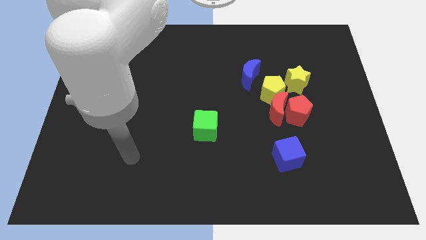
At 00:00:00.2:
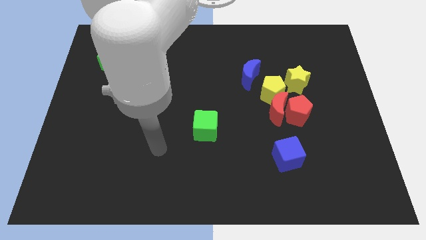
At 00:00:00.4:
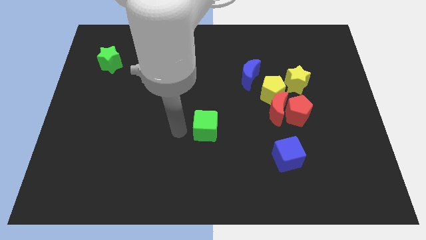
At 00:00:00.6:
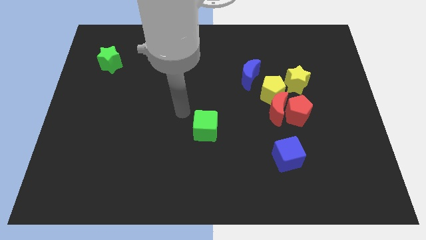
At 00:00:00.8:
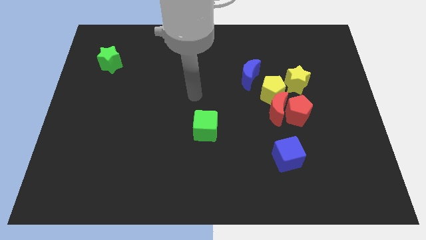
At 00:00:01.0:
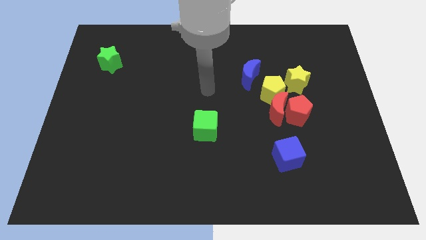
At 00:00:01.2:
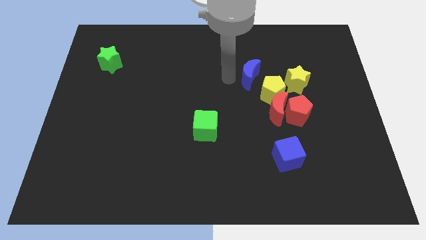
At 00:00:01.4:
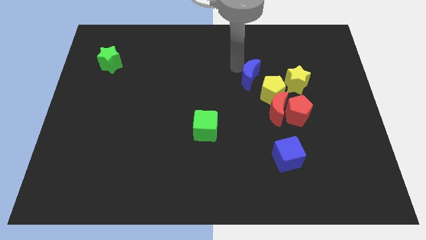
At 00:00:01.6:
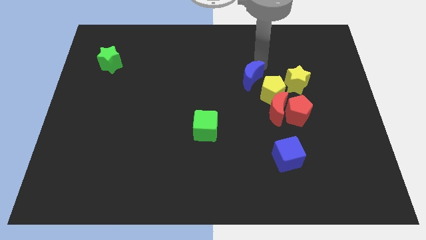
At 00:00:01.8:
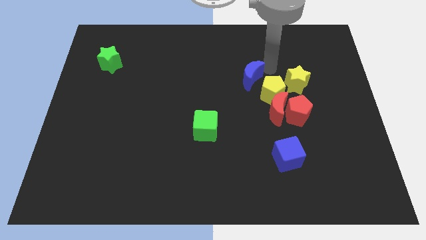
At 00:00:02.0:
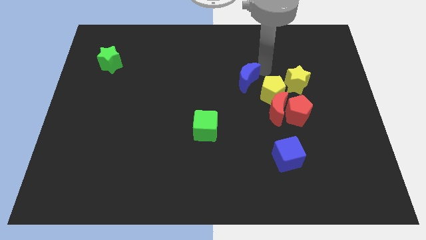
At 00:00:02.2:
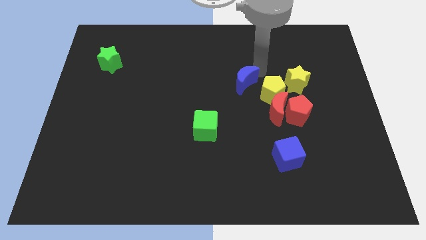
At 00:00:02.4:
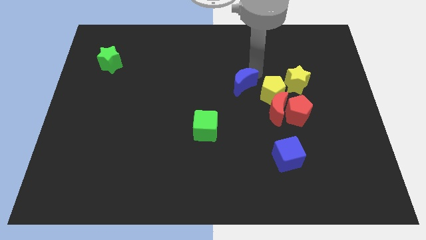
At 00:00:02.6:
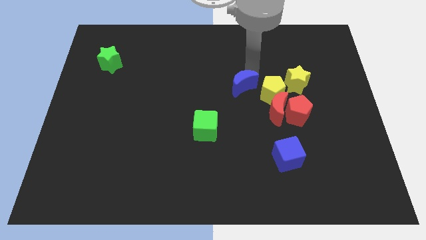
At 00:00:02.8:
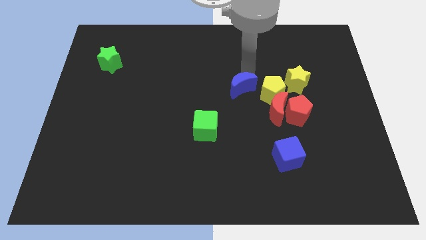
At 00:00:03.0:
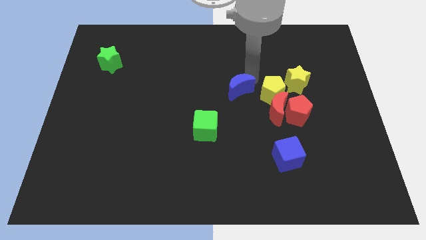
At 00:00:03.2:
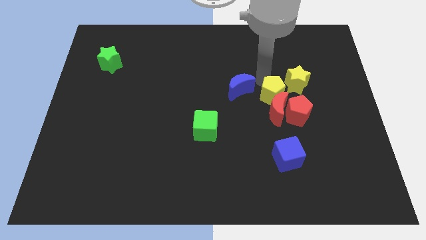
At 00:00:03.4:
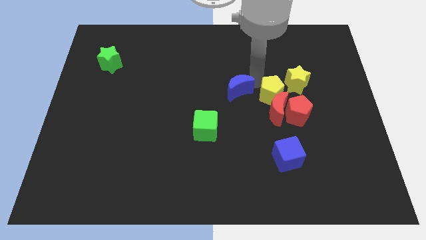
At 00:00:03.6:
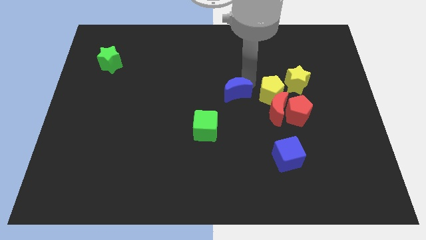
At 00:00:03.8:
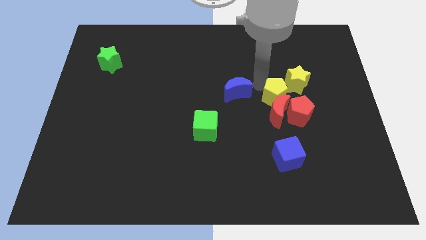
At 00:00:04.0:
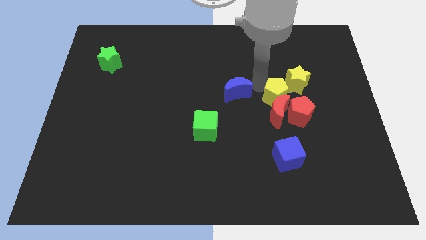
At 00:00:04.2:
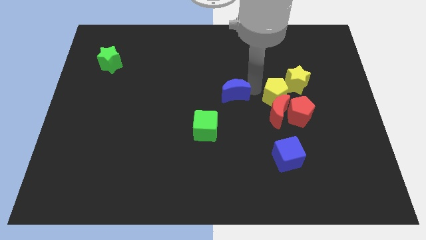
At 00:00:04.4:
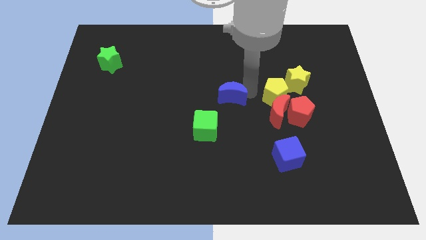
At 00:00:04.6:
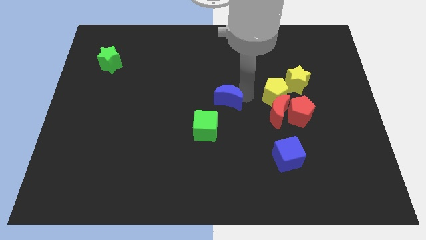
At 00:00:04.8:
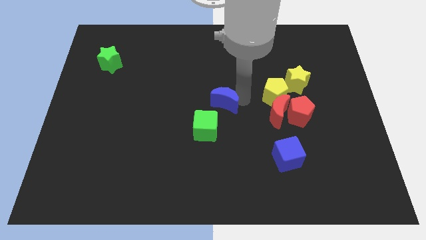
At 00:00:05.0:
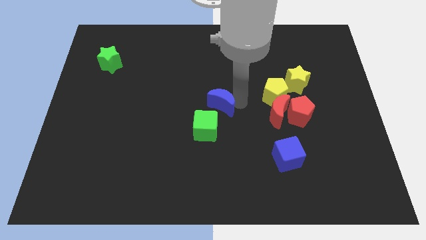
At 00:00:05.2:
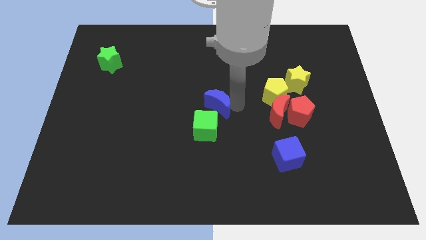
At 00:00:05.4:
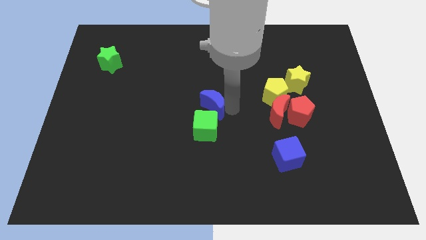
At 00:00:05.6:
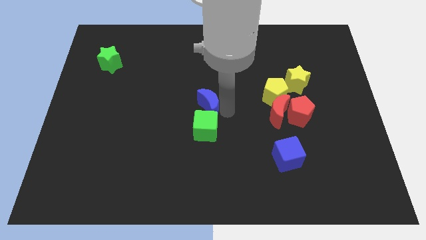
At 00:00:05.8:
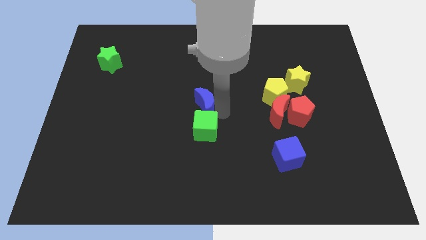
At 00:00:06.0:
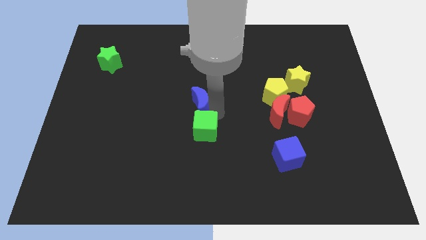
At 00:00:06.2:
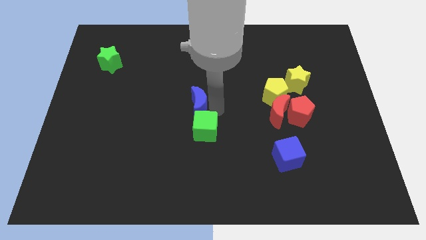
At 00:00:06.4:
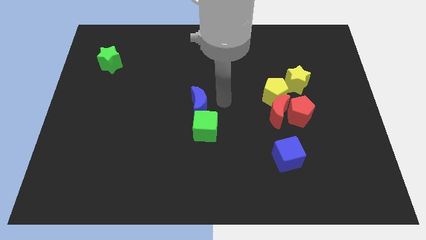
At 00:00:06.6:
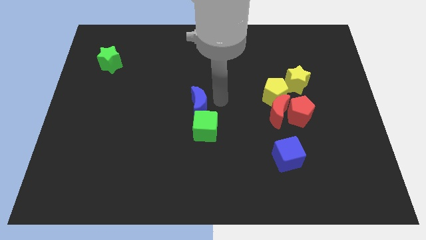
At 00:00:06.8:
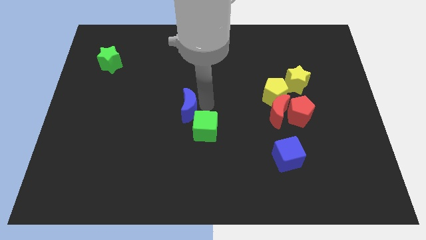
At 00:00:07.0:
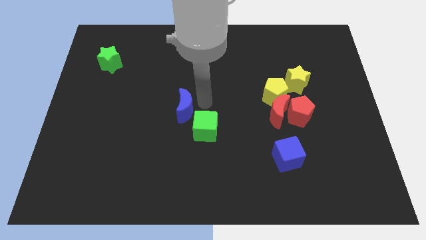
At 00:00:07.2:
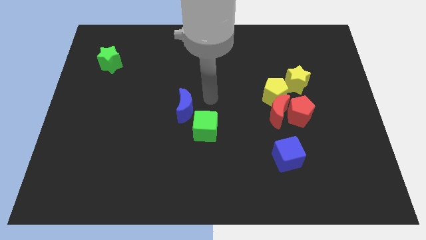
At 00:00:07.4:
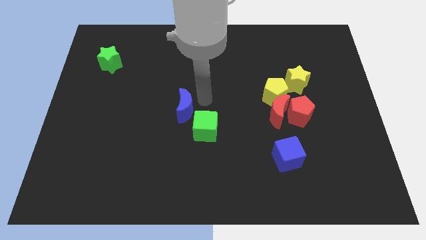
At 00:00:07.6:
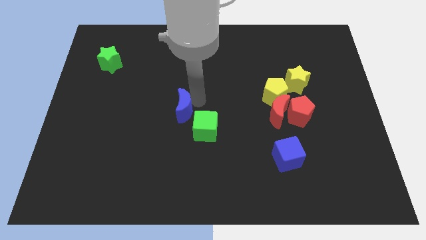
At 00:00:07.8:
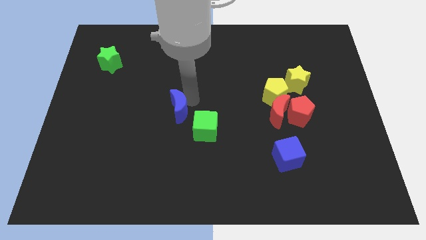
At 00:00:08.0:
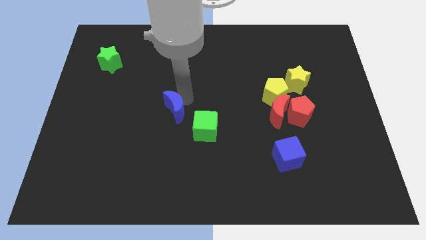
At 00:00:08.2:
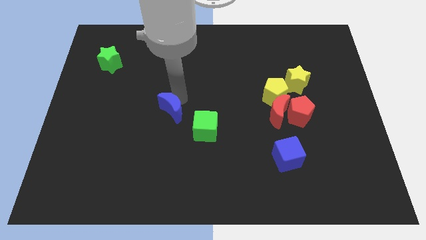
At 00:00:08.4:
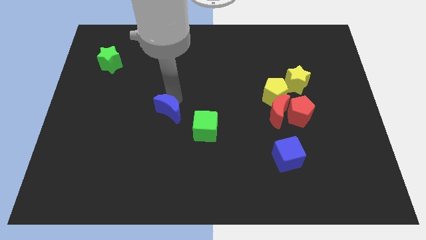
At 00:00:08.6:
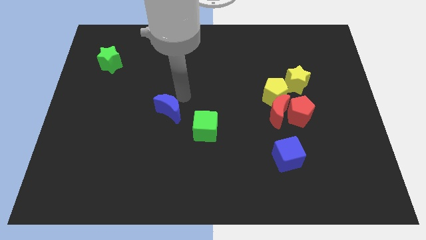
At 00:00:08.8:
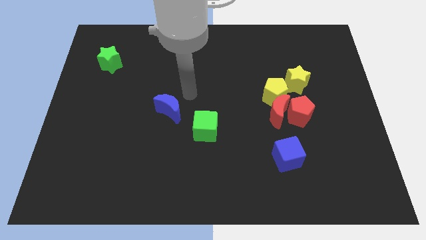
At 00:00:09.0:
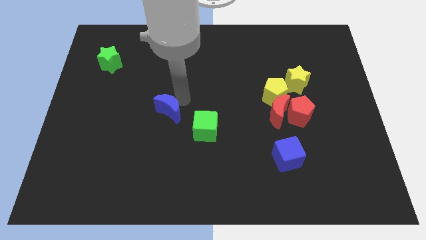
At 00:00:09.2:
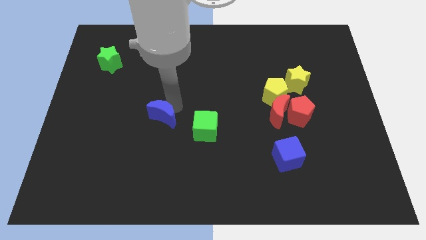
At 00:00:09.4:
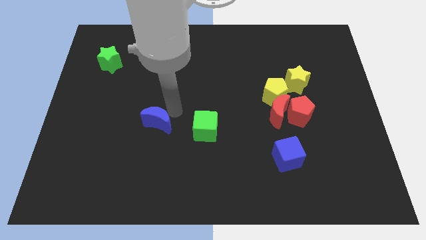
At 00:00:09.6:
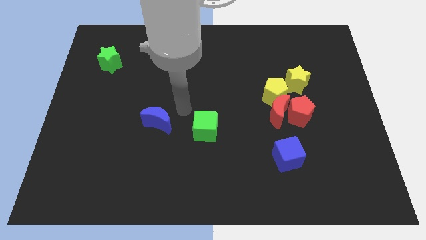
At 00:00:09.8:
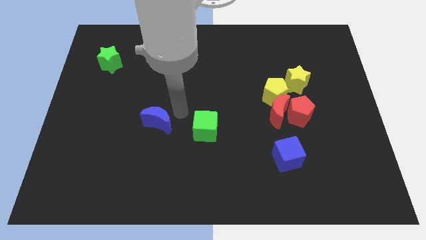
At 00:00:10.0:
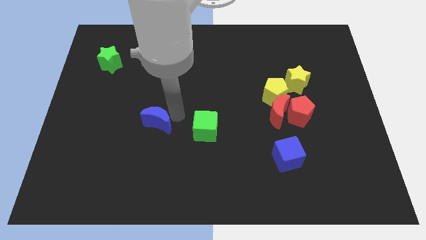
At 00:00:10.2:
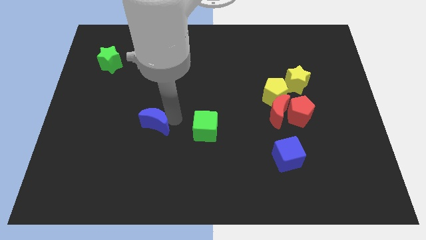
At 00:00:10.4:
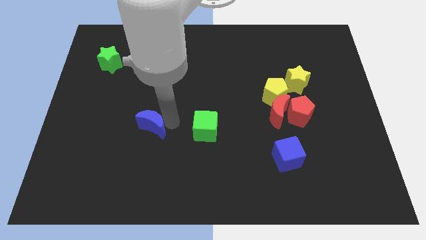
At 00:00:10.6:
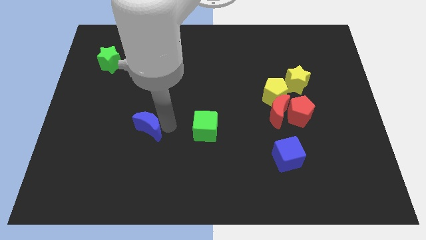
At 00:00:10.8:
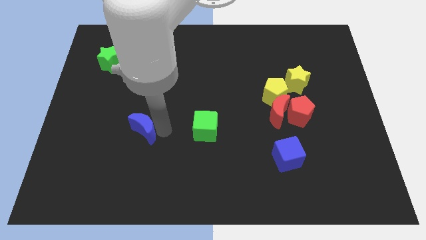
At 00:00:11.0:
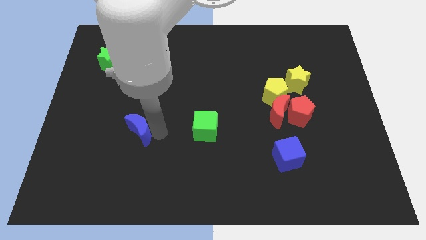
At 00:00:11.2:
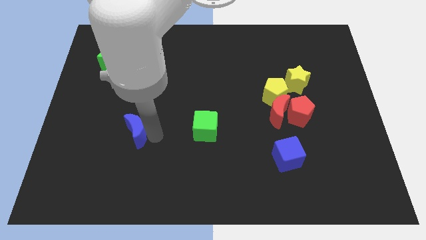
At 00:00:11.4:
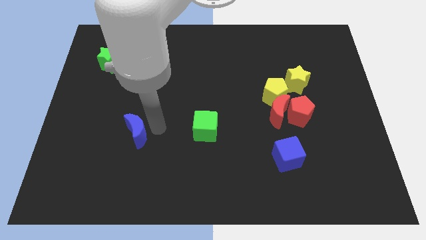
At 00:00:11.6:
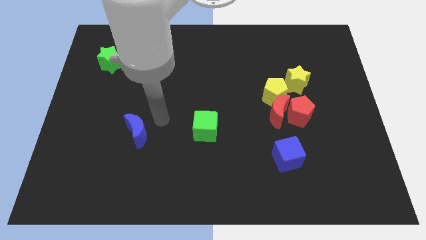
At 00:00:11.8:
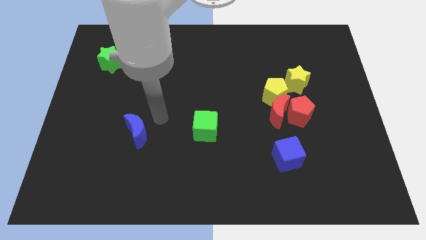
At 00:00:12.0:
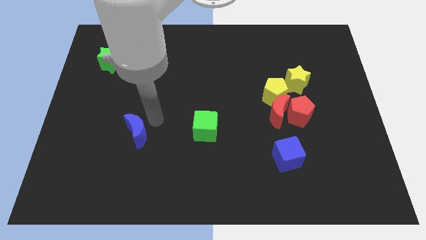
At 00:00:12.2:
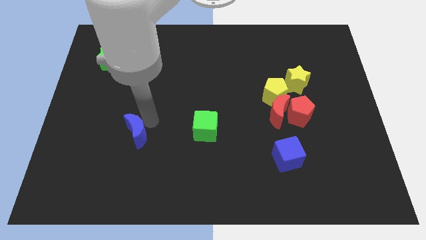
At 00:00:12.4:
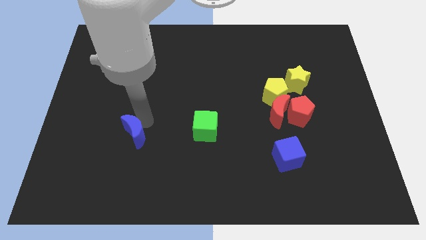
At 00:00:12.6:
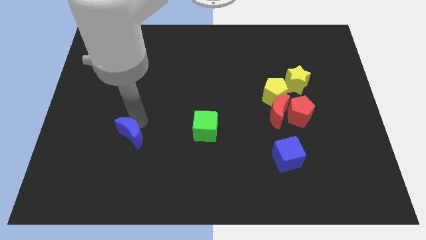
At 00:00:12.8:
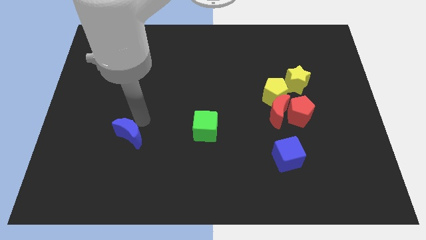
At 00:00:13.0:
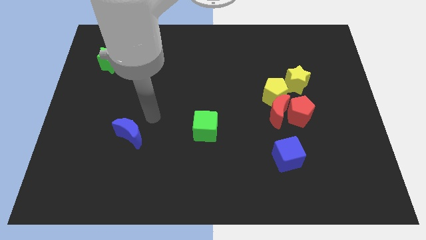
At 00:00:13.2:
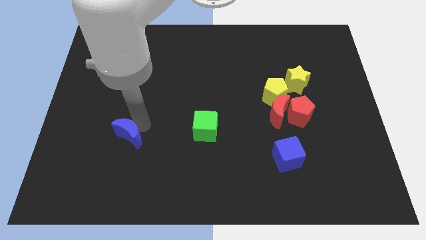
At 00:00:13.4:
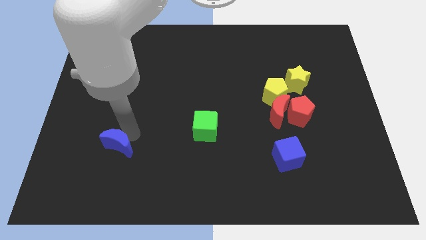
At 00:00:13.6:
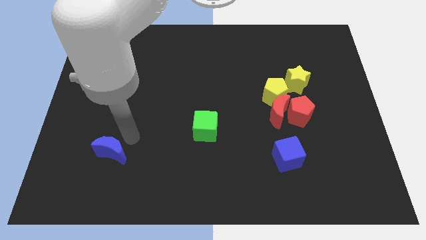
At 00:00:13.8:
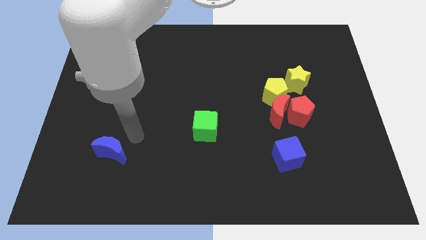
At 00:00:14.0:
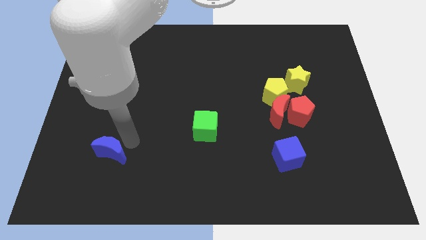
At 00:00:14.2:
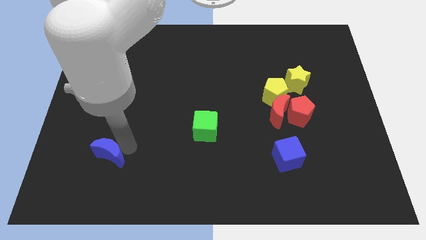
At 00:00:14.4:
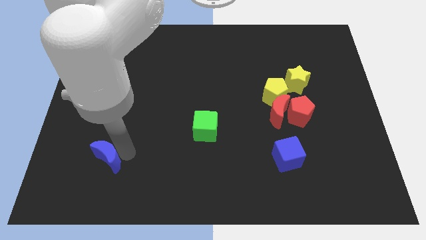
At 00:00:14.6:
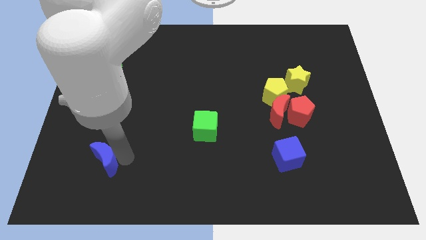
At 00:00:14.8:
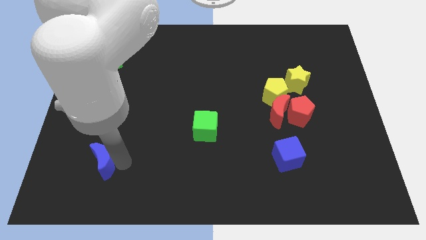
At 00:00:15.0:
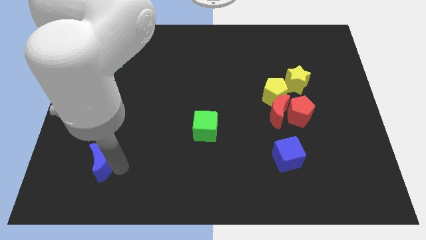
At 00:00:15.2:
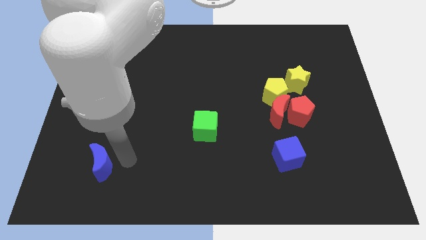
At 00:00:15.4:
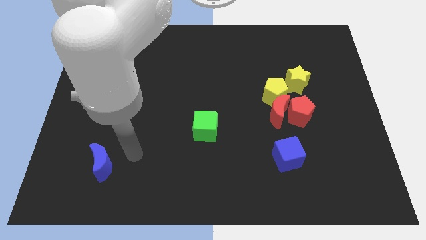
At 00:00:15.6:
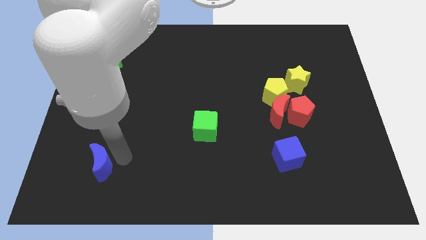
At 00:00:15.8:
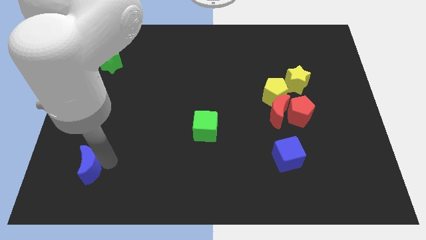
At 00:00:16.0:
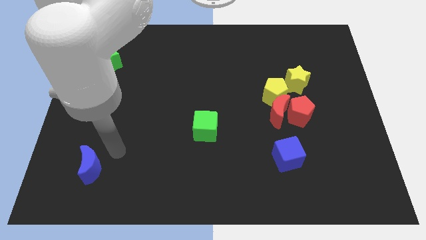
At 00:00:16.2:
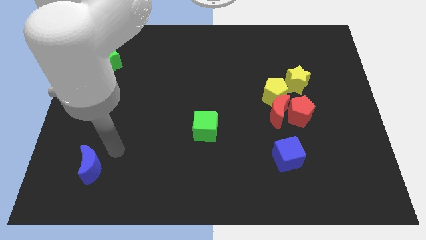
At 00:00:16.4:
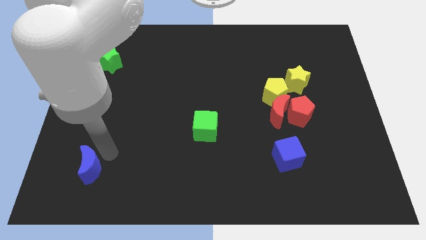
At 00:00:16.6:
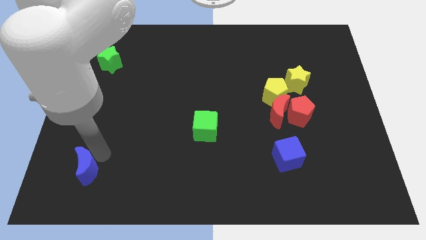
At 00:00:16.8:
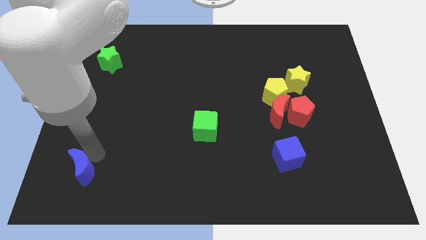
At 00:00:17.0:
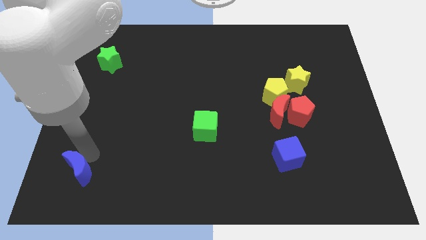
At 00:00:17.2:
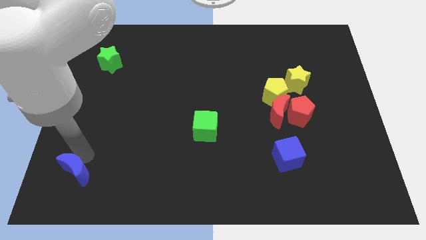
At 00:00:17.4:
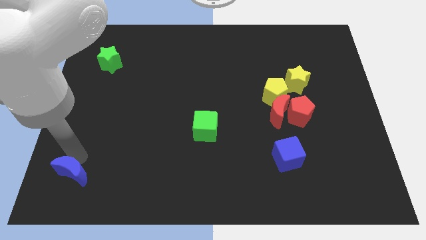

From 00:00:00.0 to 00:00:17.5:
push the blue moon to the lower left corner
